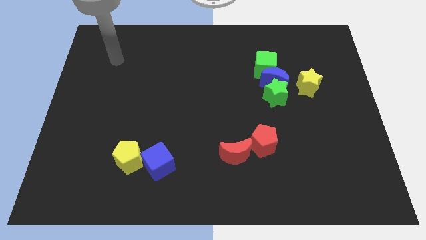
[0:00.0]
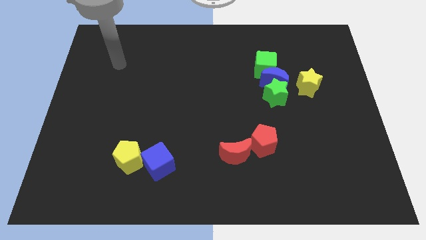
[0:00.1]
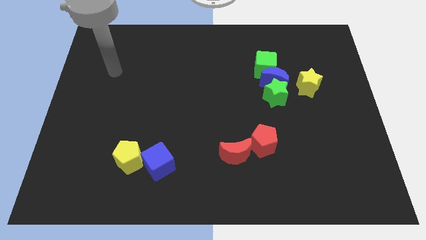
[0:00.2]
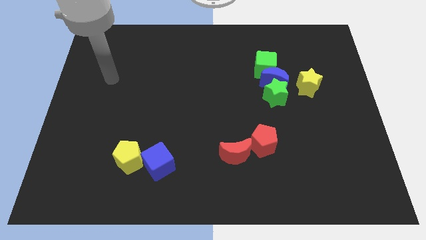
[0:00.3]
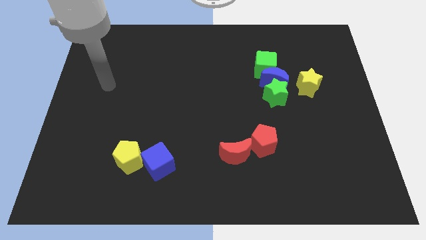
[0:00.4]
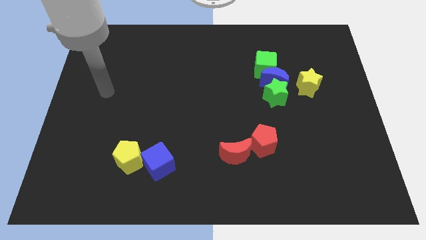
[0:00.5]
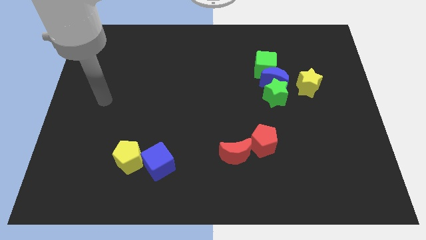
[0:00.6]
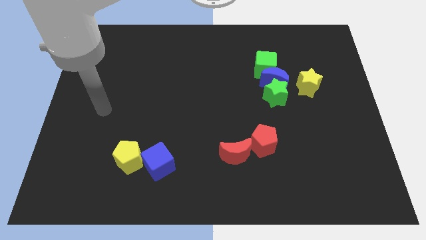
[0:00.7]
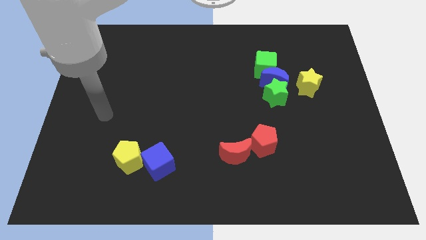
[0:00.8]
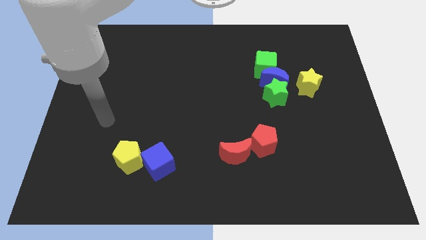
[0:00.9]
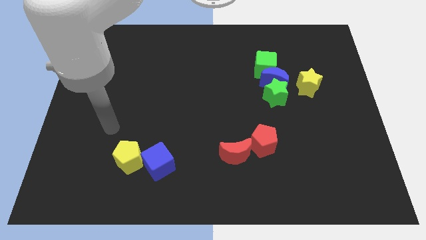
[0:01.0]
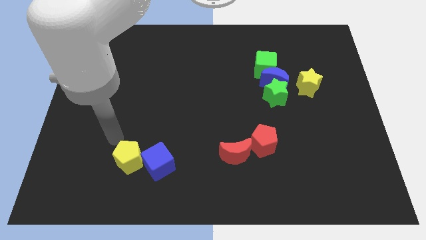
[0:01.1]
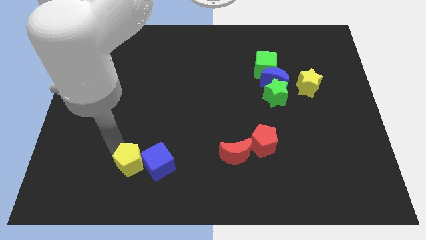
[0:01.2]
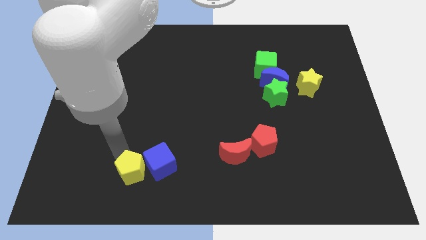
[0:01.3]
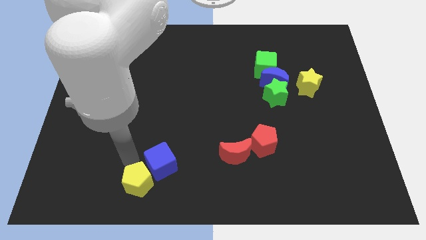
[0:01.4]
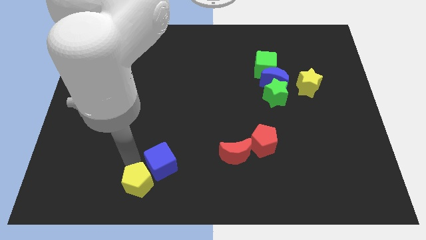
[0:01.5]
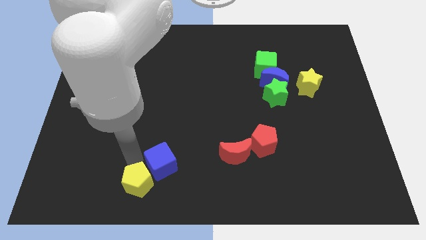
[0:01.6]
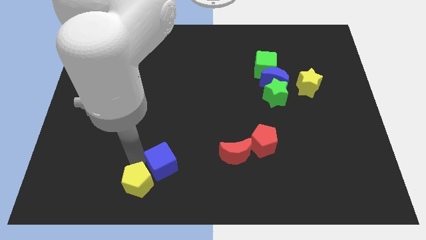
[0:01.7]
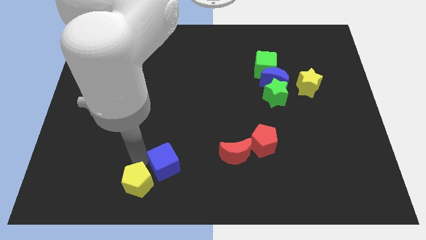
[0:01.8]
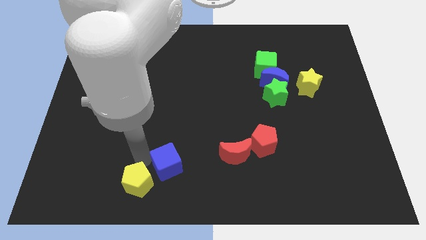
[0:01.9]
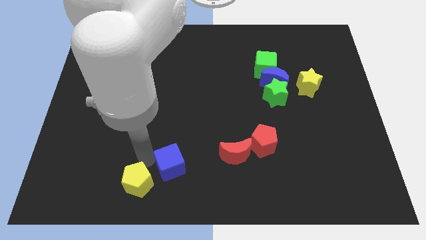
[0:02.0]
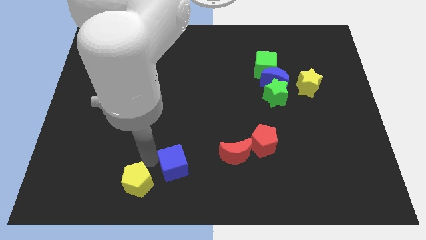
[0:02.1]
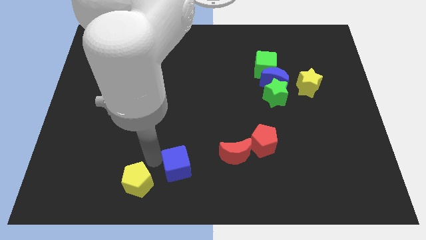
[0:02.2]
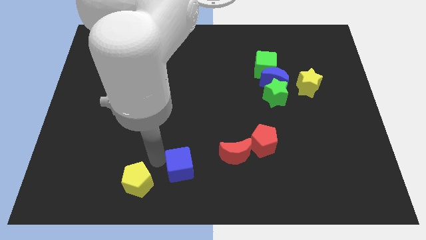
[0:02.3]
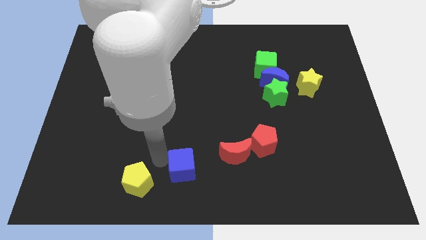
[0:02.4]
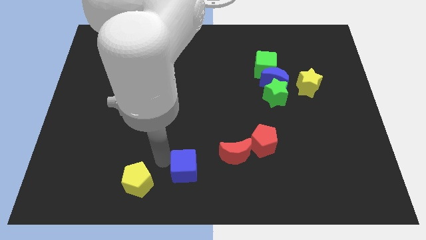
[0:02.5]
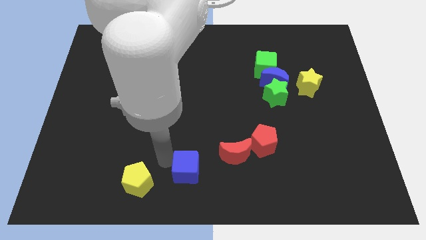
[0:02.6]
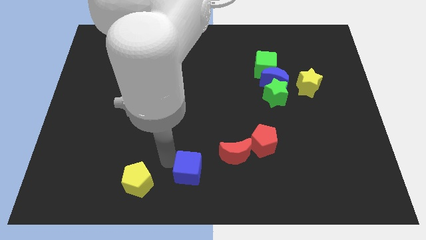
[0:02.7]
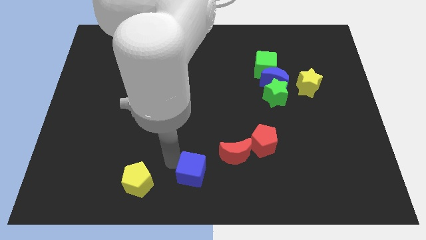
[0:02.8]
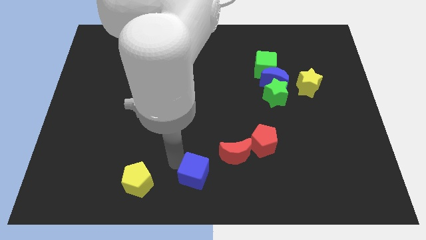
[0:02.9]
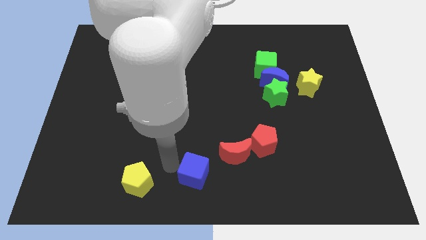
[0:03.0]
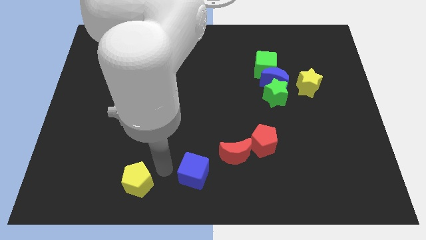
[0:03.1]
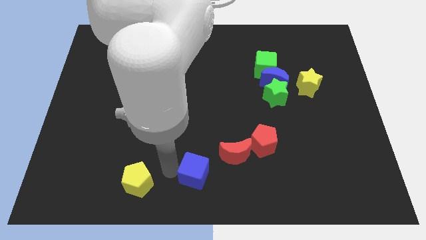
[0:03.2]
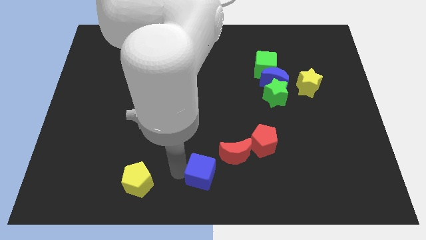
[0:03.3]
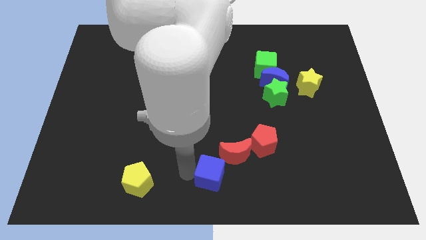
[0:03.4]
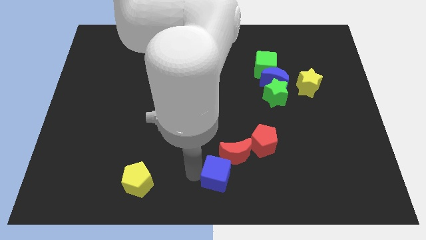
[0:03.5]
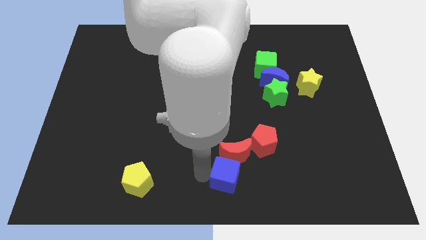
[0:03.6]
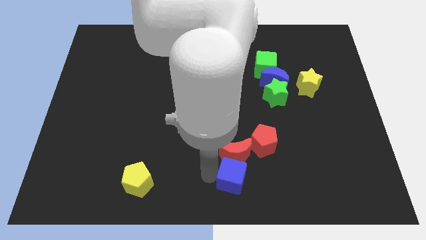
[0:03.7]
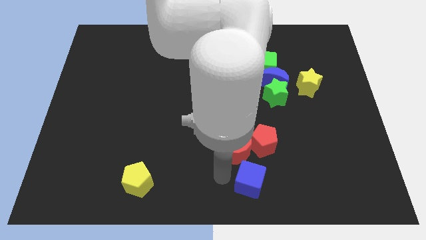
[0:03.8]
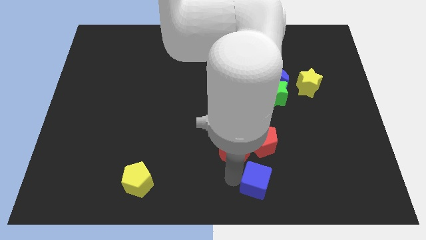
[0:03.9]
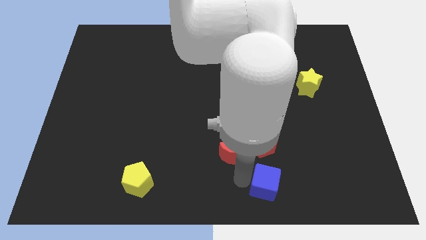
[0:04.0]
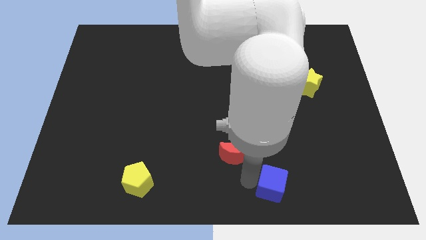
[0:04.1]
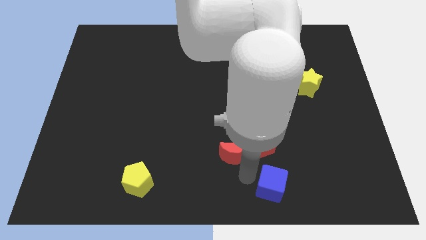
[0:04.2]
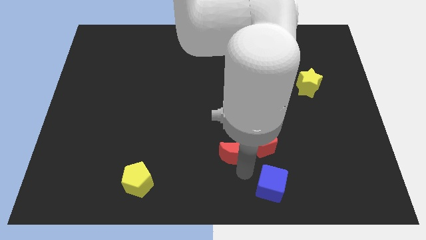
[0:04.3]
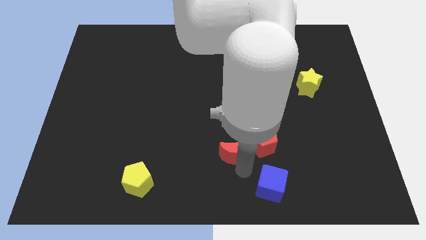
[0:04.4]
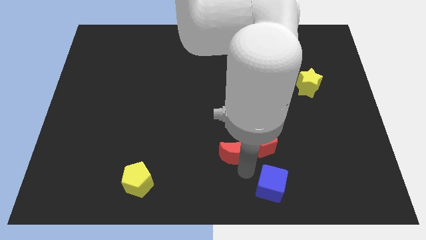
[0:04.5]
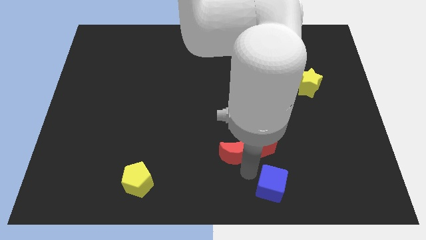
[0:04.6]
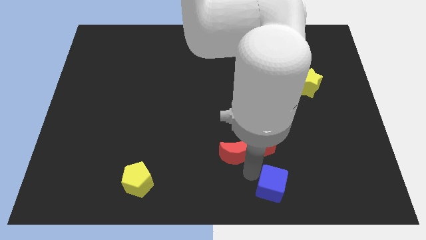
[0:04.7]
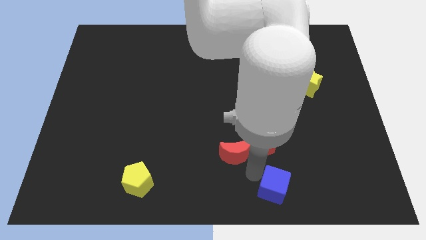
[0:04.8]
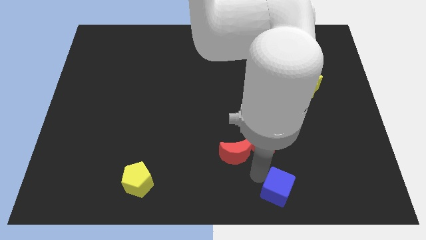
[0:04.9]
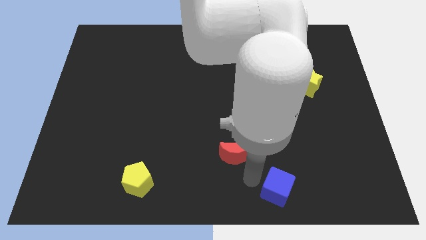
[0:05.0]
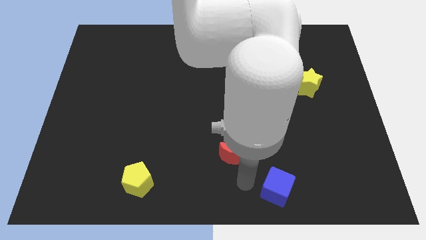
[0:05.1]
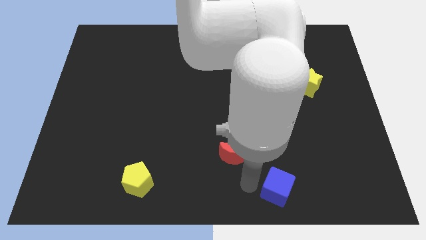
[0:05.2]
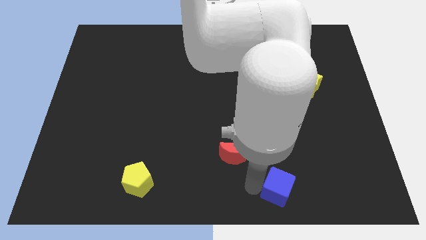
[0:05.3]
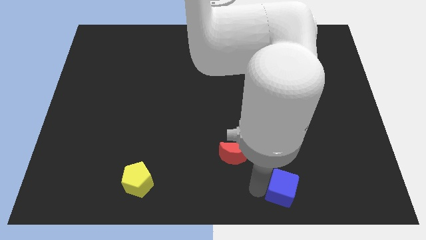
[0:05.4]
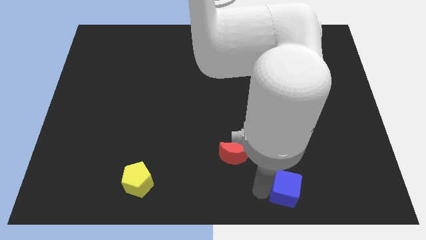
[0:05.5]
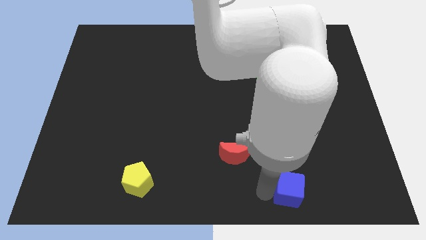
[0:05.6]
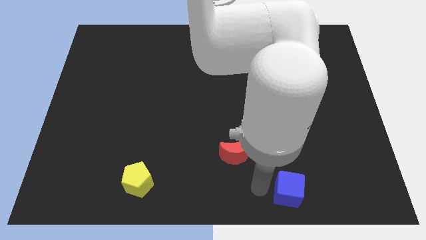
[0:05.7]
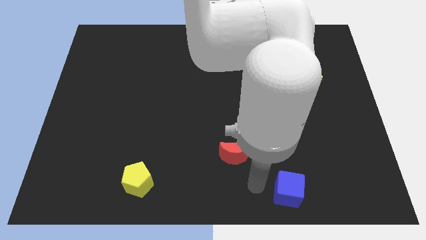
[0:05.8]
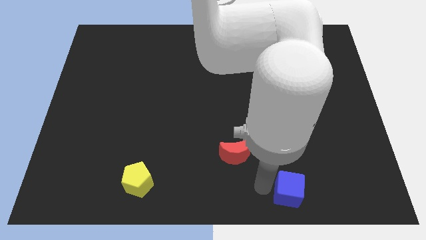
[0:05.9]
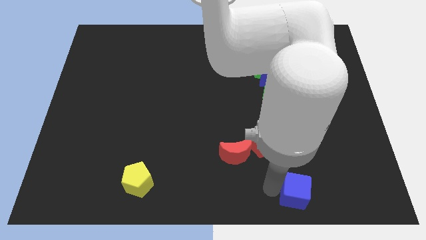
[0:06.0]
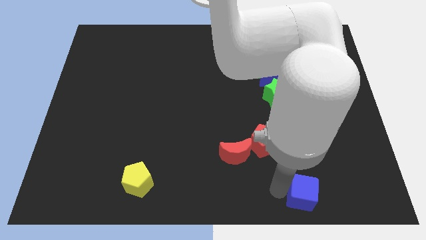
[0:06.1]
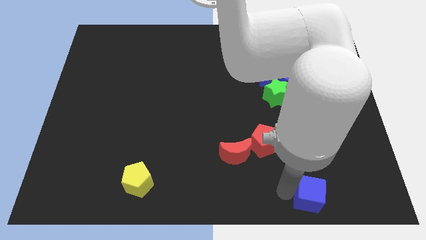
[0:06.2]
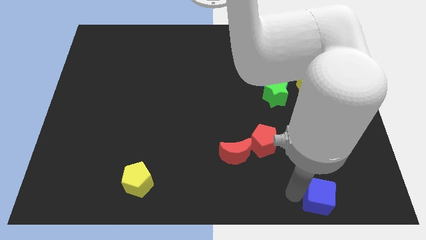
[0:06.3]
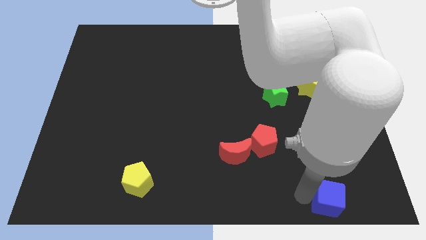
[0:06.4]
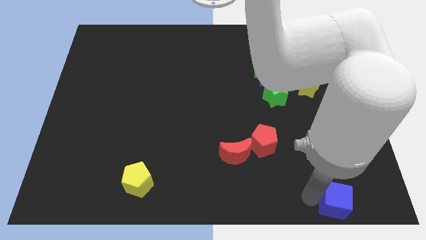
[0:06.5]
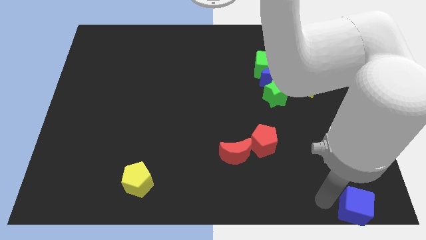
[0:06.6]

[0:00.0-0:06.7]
put the blue cube to the bottom right of the board
